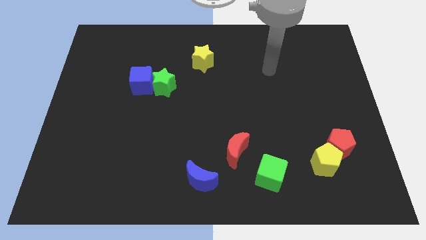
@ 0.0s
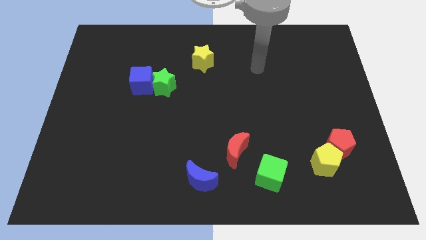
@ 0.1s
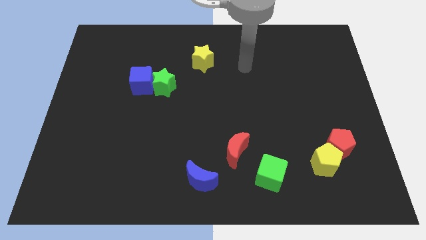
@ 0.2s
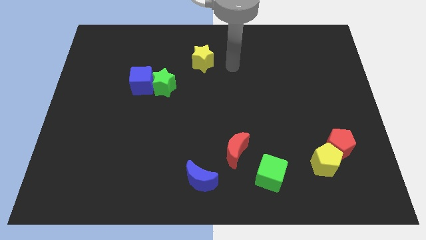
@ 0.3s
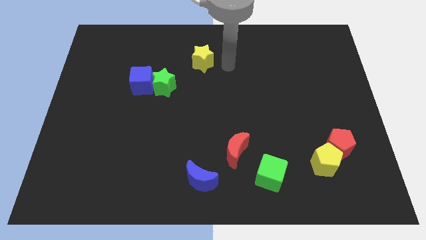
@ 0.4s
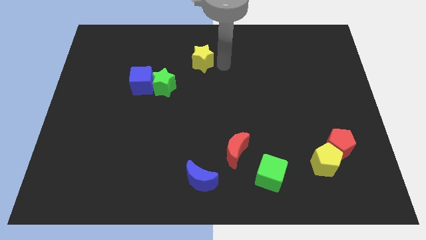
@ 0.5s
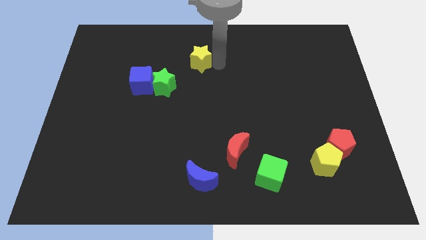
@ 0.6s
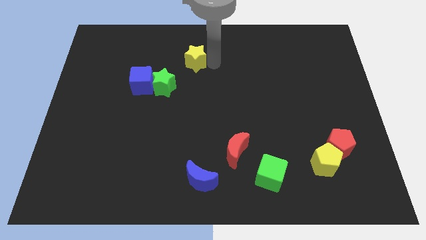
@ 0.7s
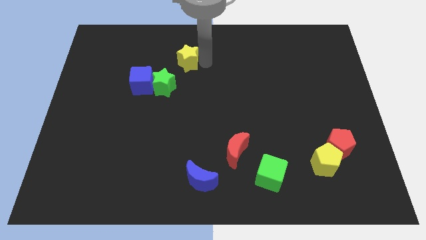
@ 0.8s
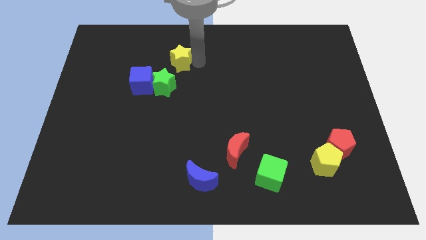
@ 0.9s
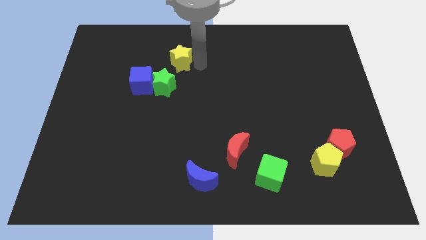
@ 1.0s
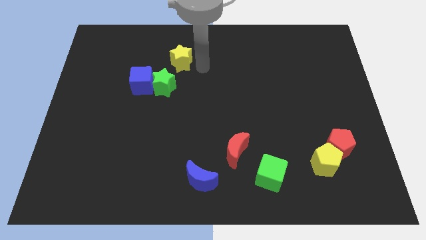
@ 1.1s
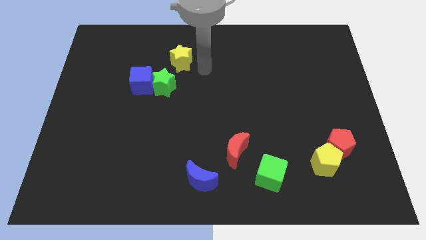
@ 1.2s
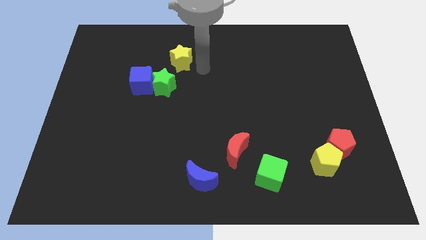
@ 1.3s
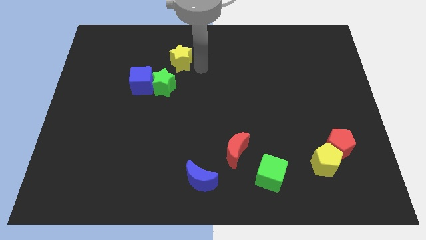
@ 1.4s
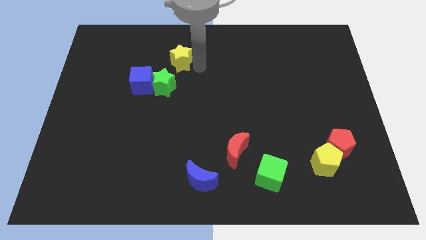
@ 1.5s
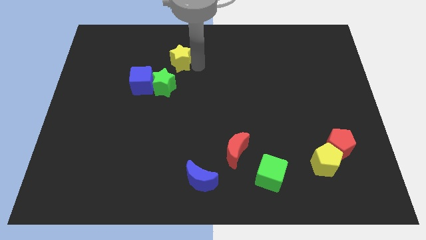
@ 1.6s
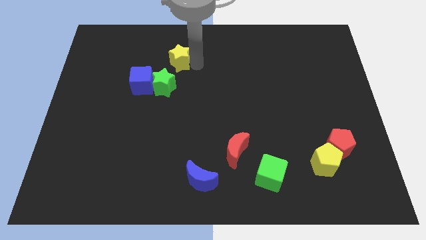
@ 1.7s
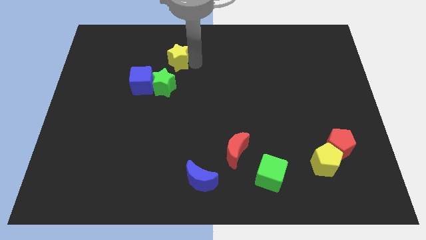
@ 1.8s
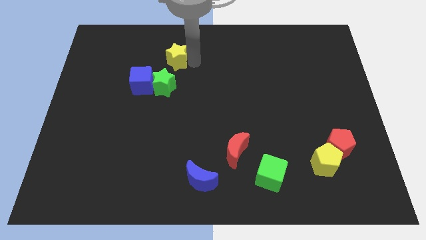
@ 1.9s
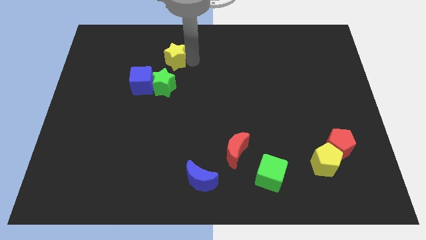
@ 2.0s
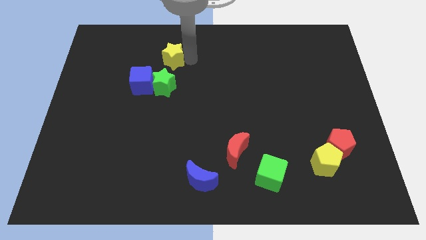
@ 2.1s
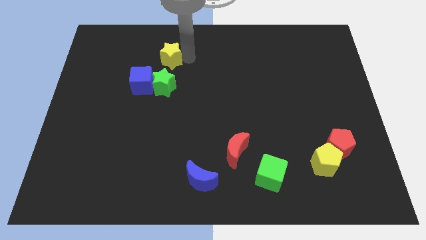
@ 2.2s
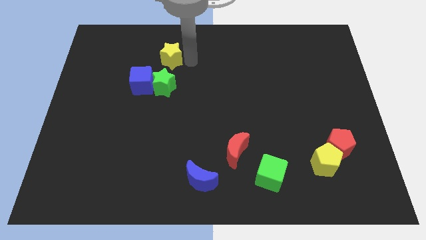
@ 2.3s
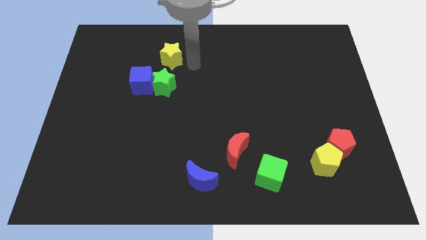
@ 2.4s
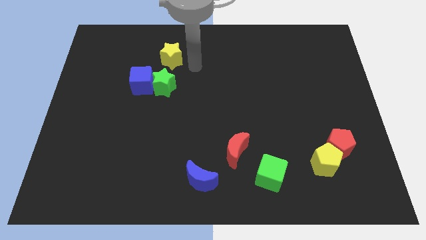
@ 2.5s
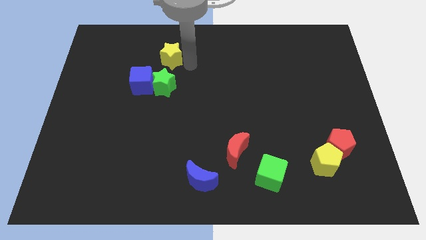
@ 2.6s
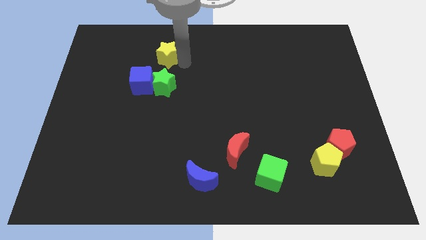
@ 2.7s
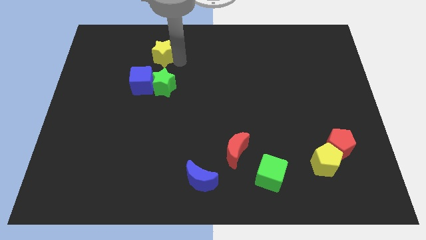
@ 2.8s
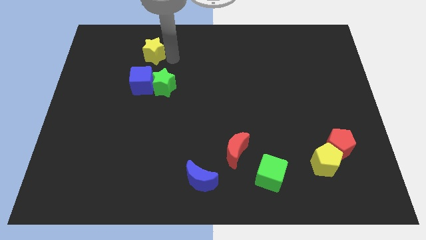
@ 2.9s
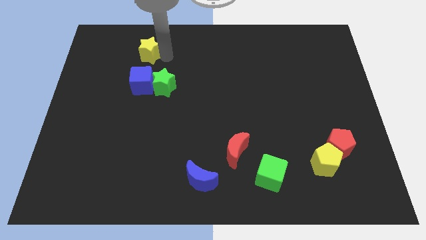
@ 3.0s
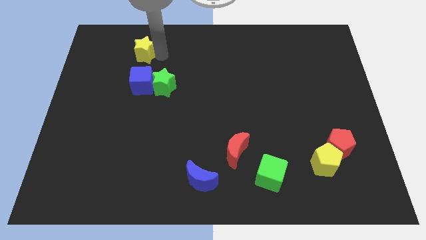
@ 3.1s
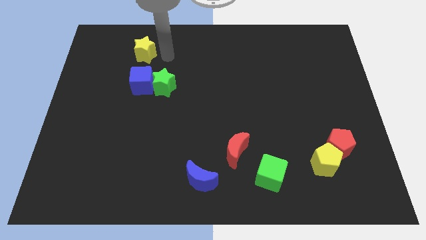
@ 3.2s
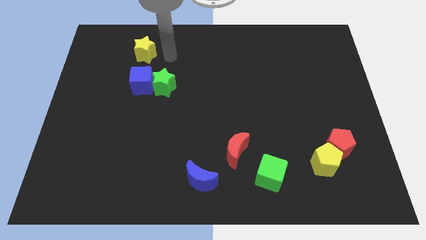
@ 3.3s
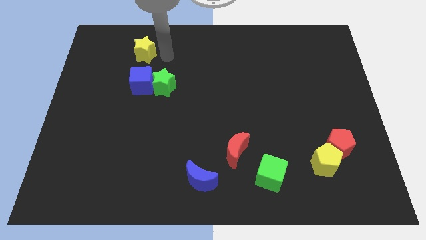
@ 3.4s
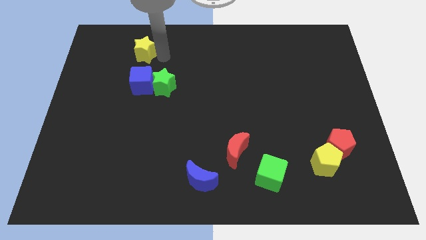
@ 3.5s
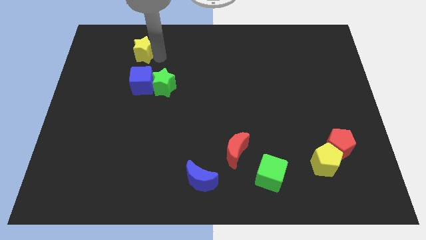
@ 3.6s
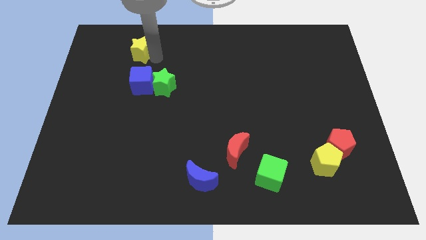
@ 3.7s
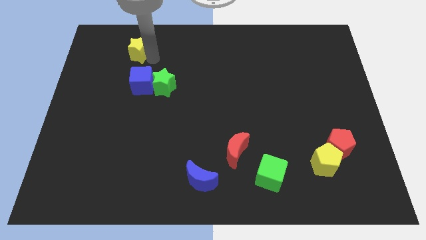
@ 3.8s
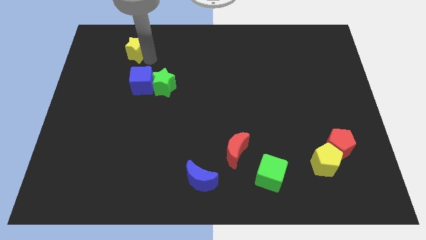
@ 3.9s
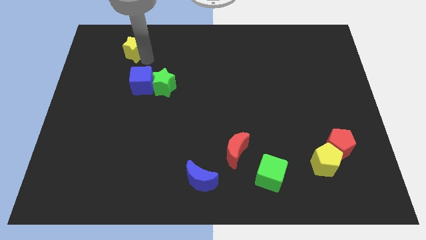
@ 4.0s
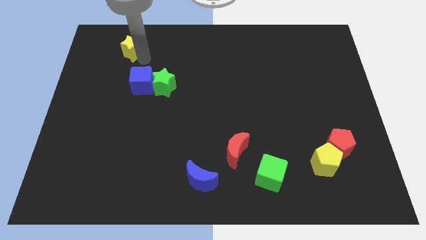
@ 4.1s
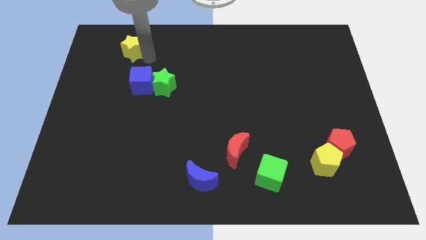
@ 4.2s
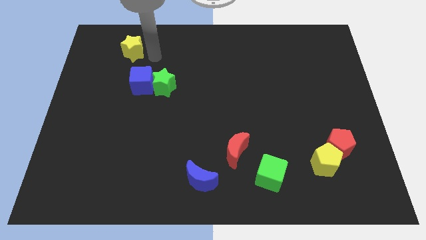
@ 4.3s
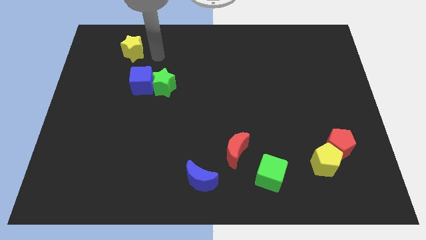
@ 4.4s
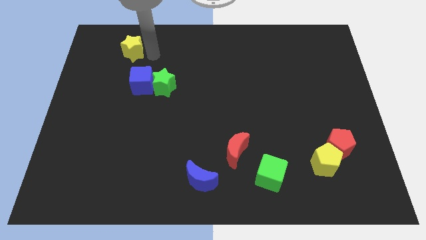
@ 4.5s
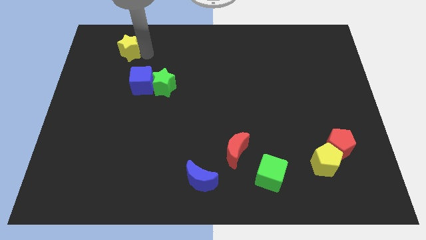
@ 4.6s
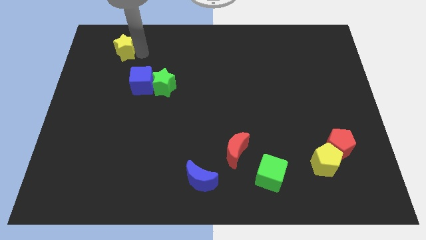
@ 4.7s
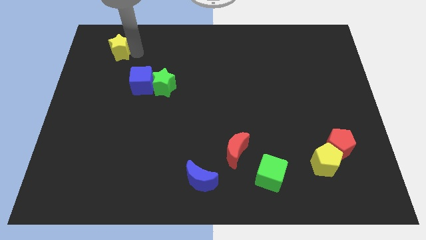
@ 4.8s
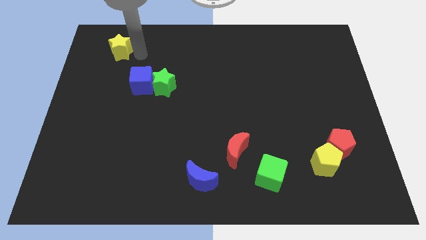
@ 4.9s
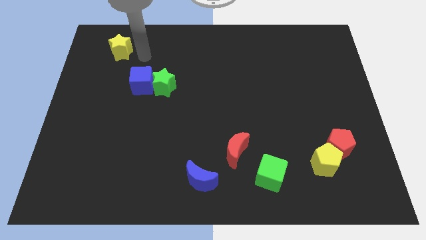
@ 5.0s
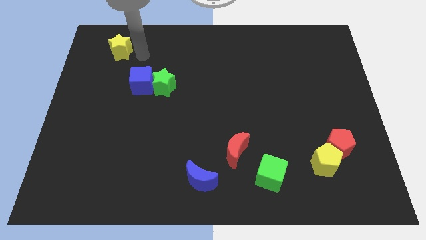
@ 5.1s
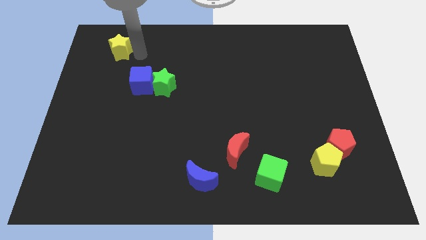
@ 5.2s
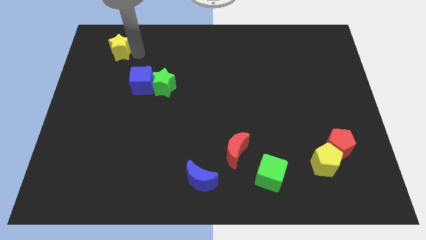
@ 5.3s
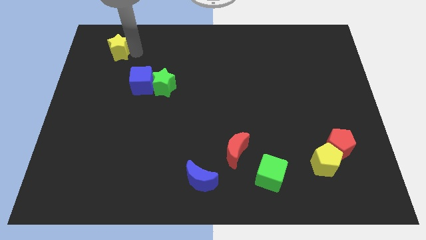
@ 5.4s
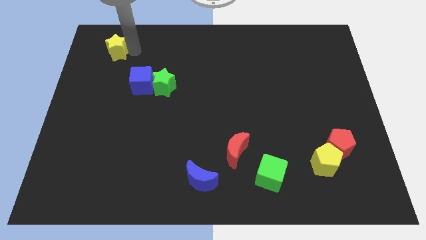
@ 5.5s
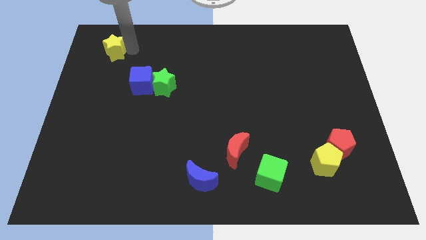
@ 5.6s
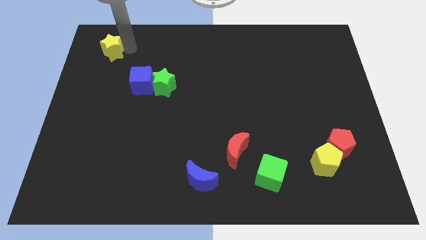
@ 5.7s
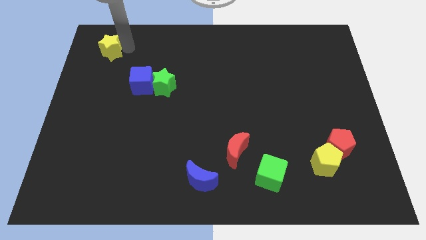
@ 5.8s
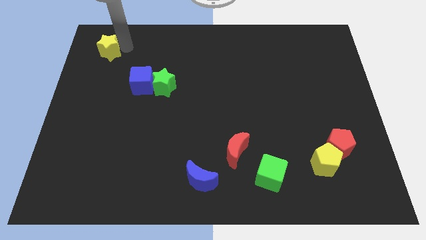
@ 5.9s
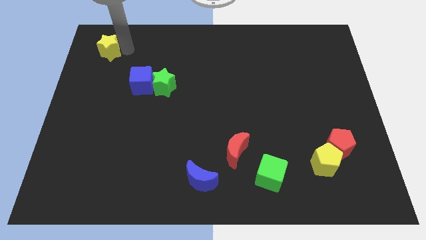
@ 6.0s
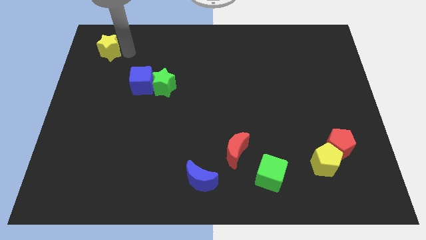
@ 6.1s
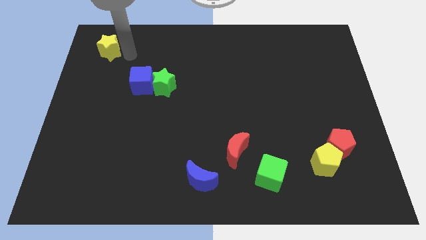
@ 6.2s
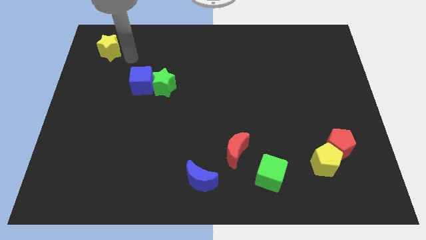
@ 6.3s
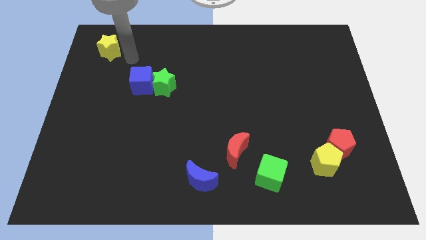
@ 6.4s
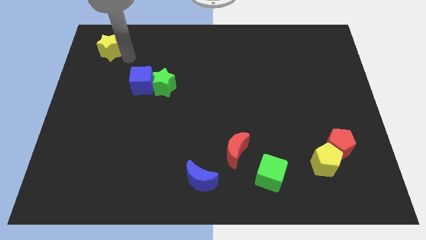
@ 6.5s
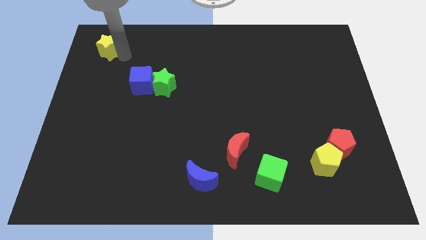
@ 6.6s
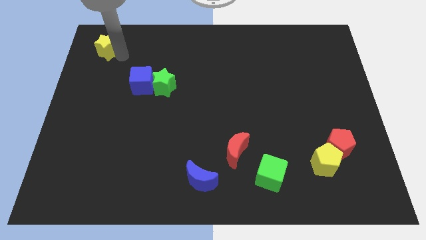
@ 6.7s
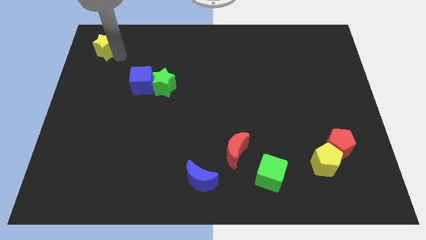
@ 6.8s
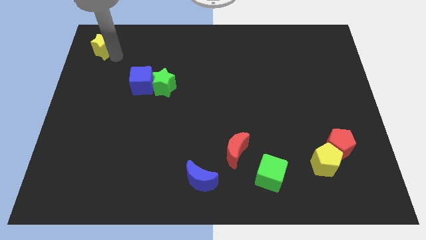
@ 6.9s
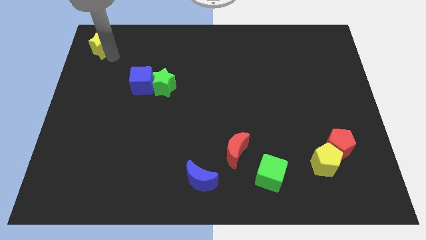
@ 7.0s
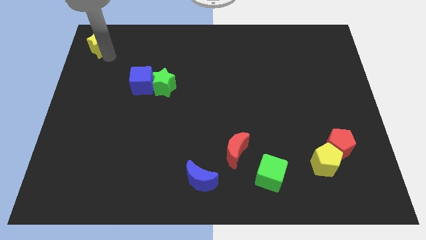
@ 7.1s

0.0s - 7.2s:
push the yellow star to the top left
